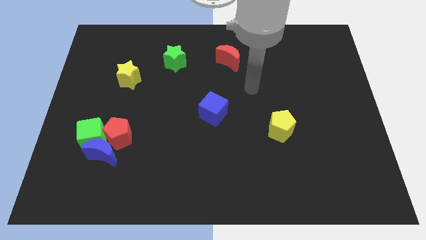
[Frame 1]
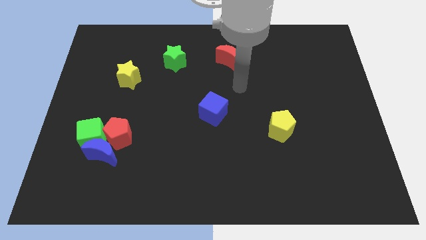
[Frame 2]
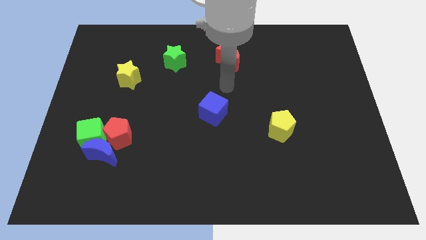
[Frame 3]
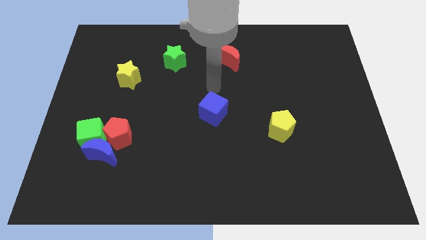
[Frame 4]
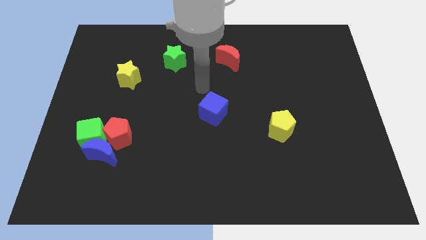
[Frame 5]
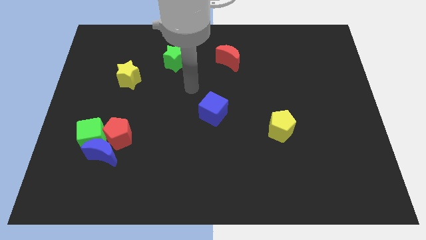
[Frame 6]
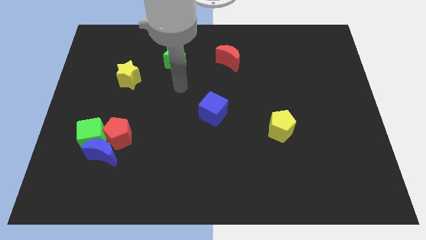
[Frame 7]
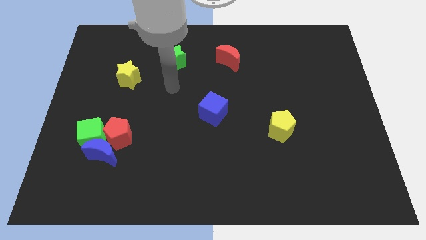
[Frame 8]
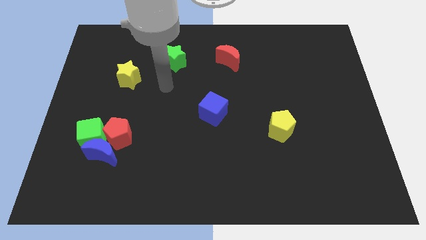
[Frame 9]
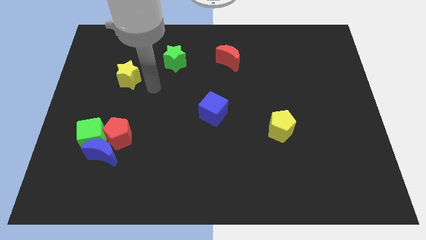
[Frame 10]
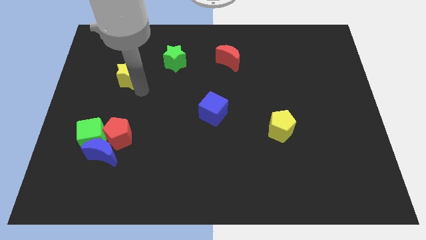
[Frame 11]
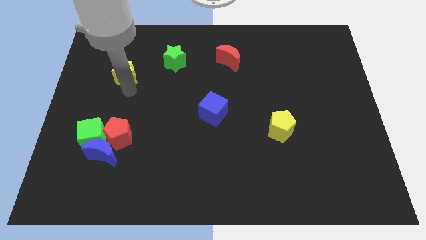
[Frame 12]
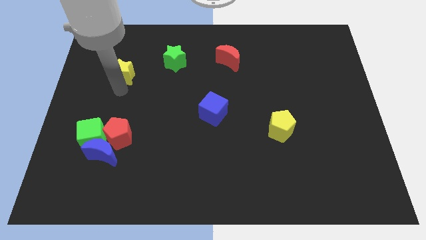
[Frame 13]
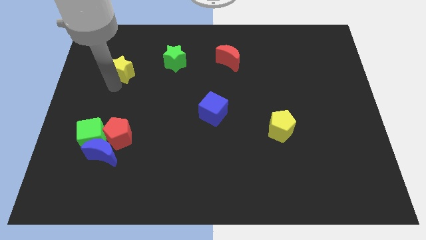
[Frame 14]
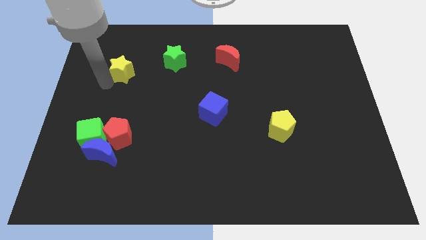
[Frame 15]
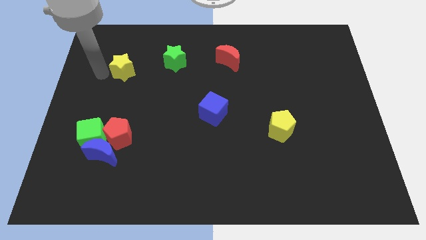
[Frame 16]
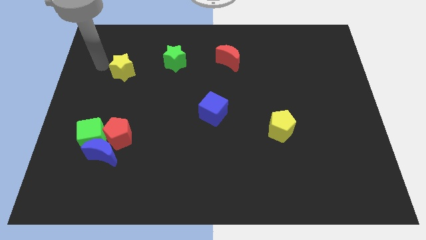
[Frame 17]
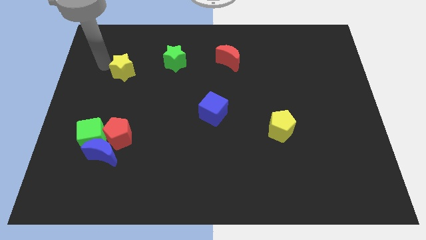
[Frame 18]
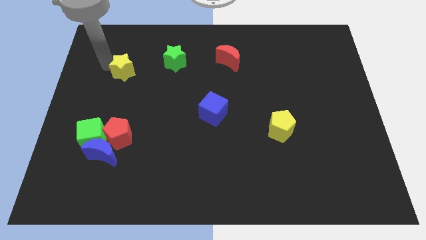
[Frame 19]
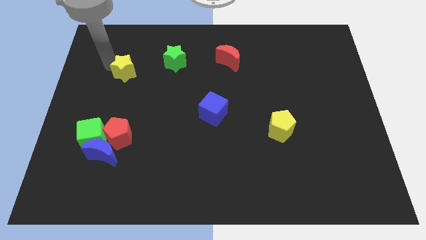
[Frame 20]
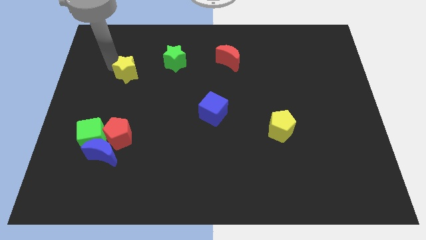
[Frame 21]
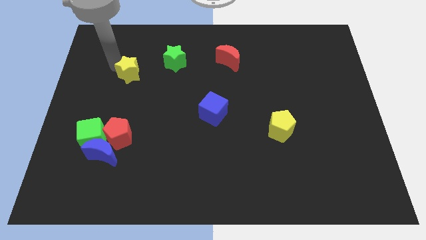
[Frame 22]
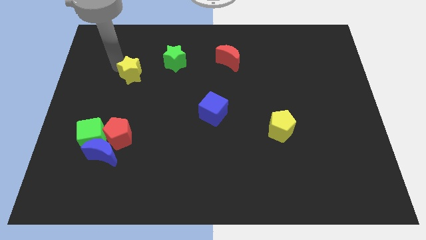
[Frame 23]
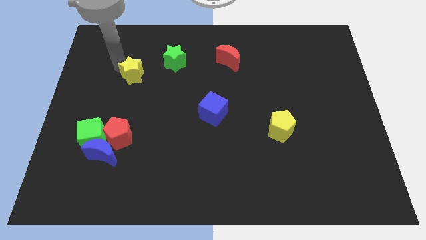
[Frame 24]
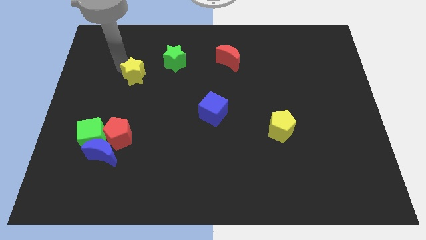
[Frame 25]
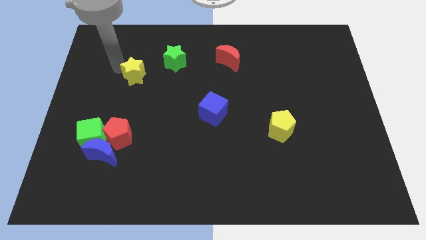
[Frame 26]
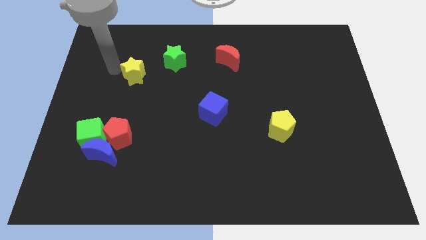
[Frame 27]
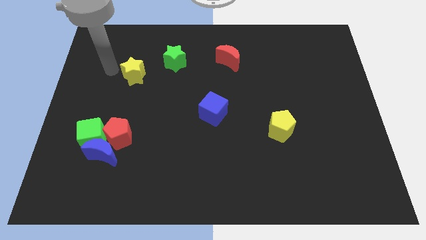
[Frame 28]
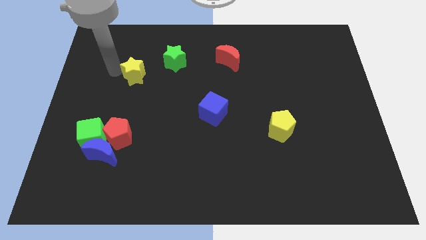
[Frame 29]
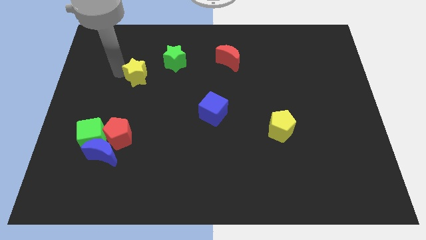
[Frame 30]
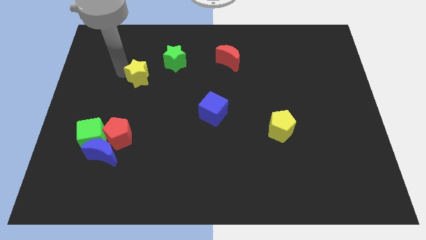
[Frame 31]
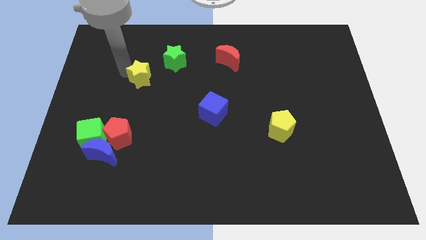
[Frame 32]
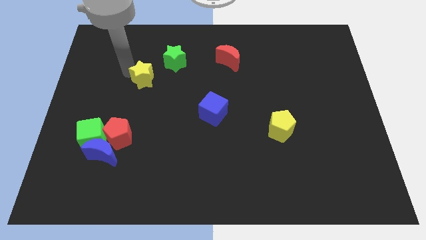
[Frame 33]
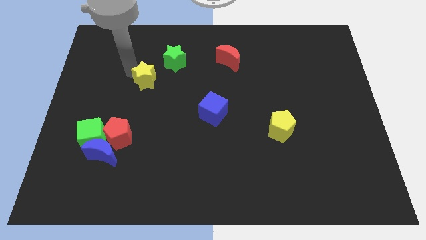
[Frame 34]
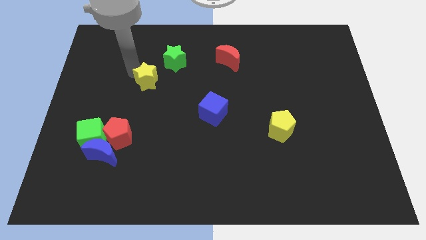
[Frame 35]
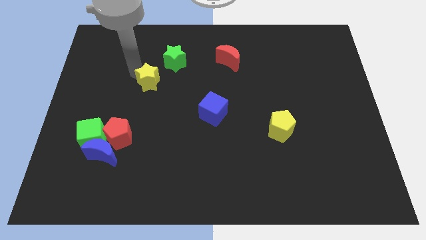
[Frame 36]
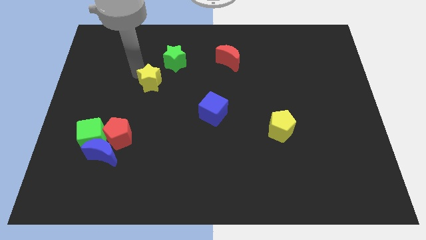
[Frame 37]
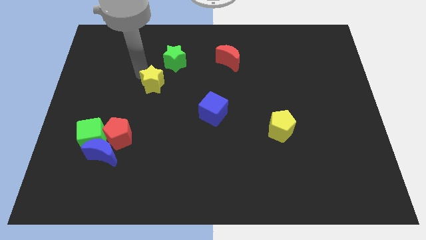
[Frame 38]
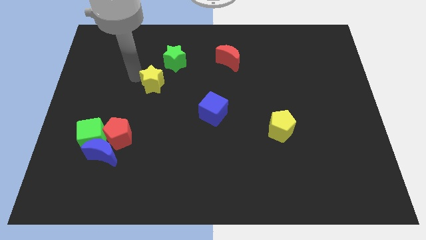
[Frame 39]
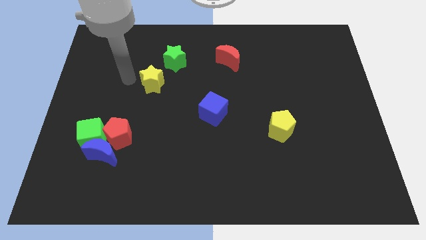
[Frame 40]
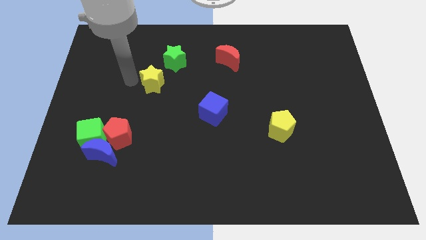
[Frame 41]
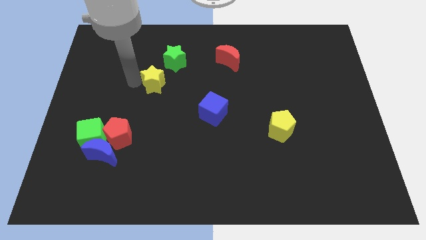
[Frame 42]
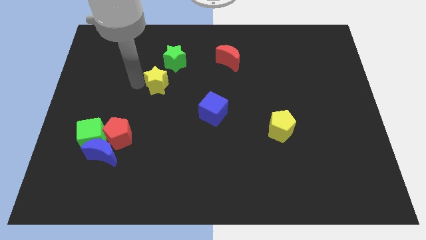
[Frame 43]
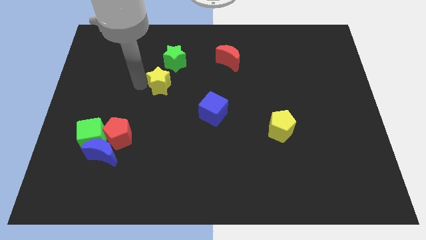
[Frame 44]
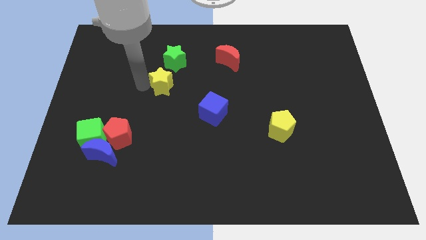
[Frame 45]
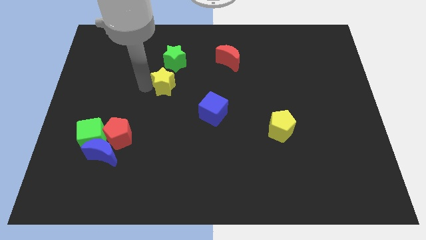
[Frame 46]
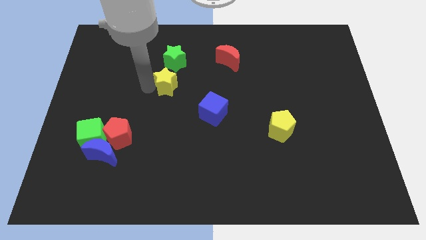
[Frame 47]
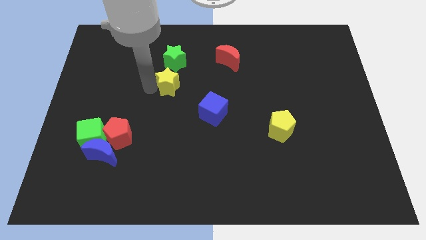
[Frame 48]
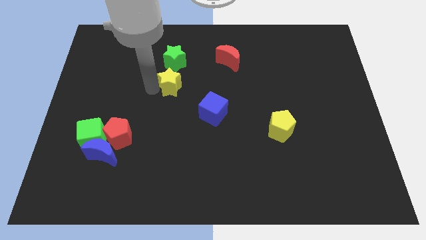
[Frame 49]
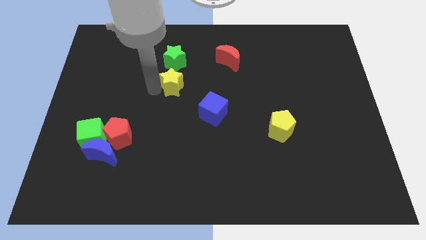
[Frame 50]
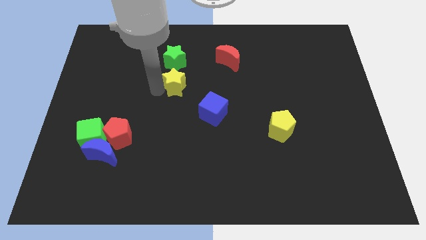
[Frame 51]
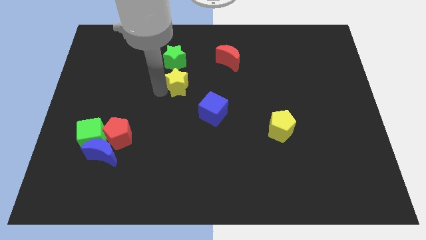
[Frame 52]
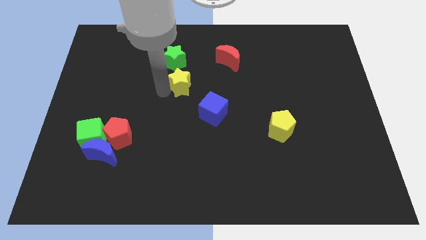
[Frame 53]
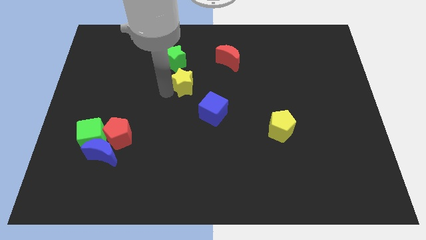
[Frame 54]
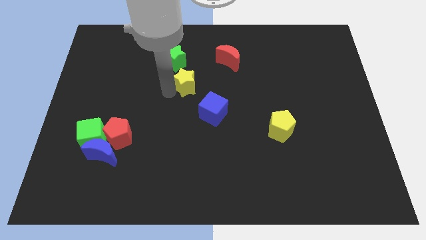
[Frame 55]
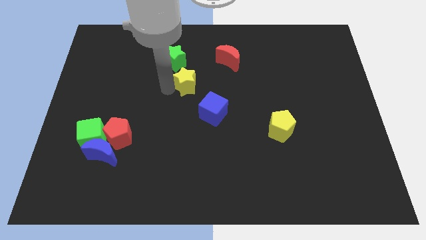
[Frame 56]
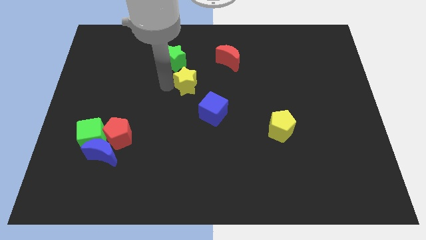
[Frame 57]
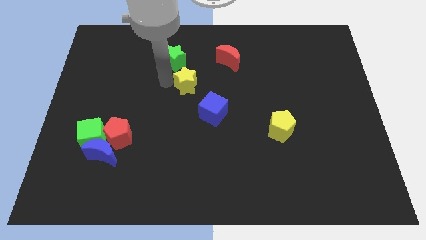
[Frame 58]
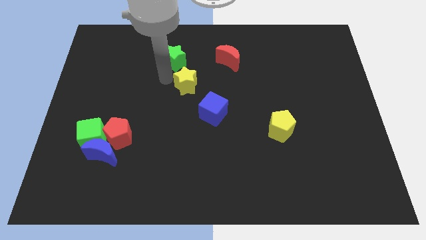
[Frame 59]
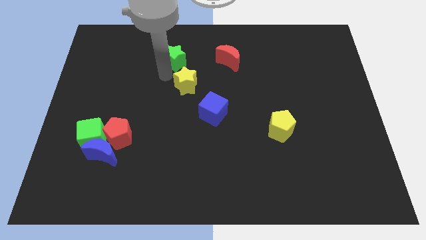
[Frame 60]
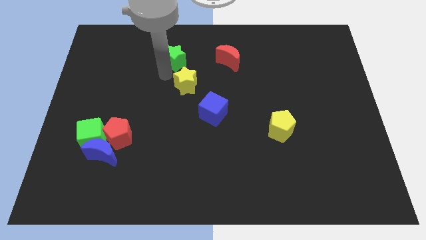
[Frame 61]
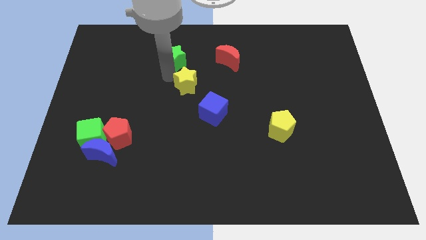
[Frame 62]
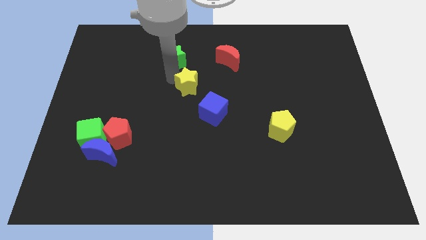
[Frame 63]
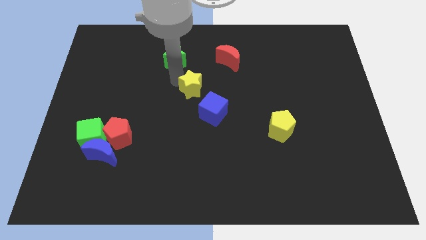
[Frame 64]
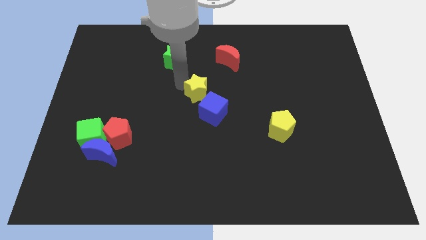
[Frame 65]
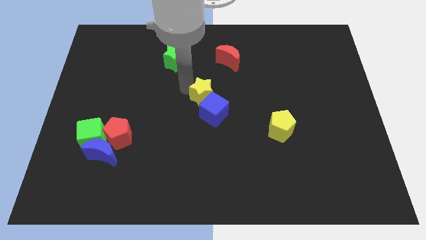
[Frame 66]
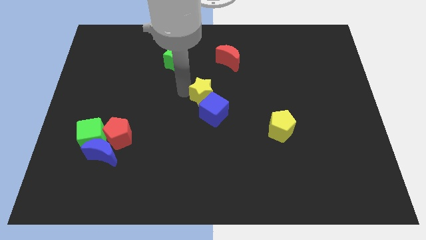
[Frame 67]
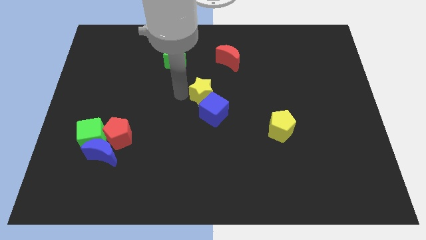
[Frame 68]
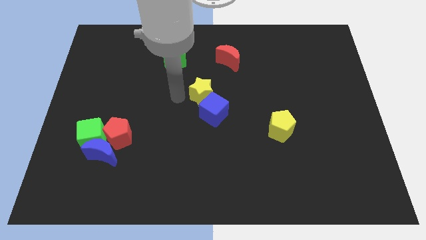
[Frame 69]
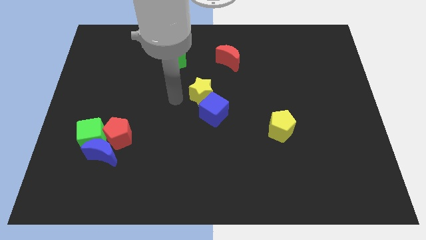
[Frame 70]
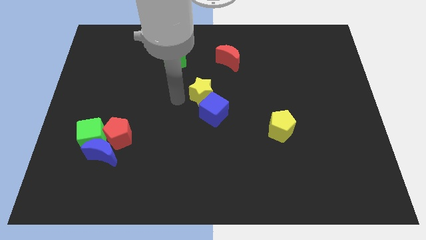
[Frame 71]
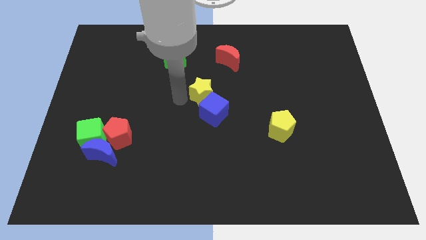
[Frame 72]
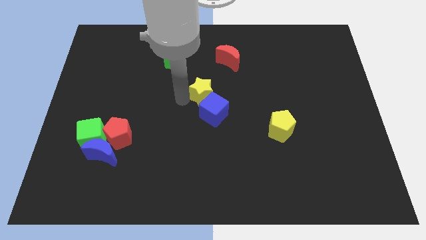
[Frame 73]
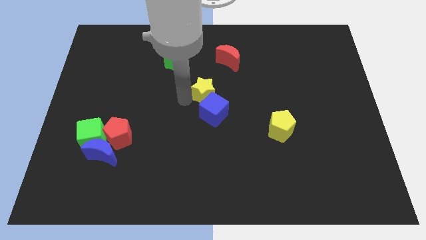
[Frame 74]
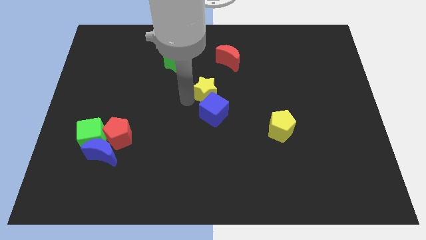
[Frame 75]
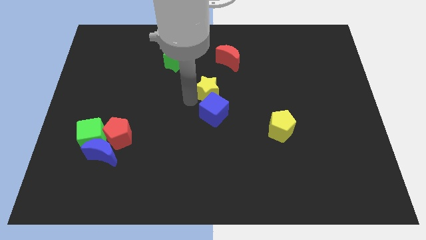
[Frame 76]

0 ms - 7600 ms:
move the yellow star diagonally up and to the right of the blue cube
